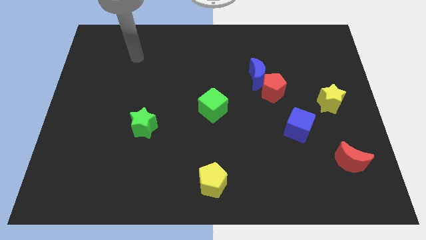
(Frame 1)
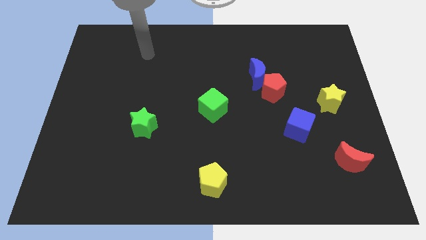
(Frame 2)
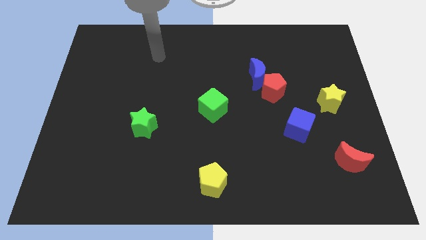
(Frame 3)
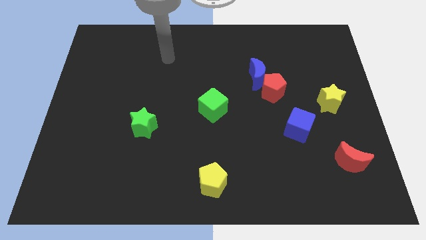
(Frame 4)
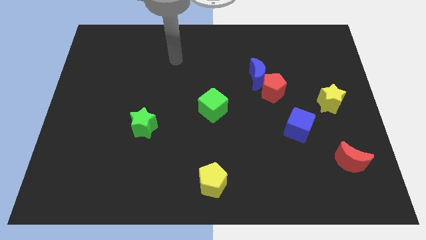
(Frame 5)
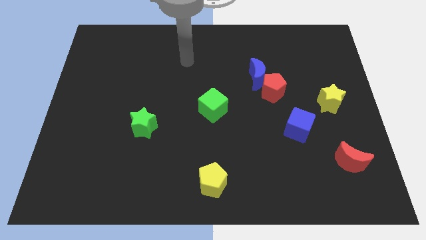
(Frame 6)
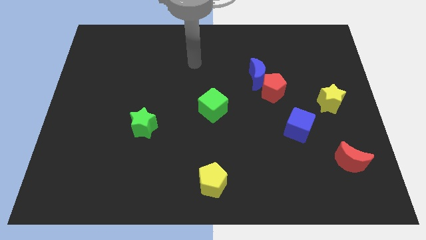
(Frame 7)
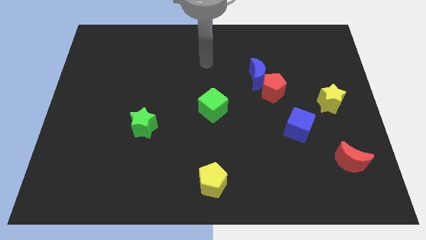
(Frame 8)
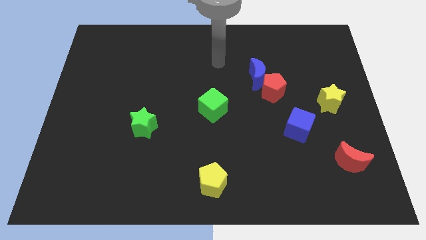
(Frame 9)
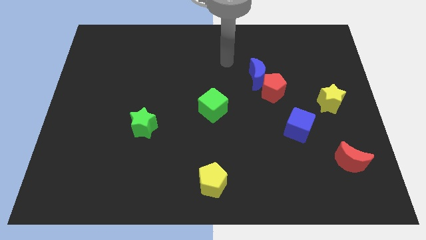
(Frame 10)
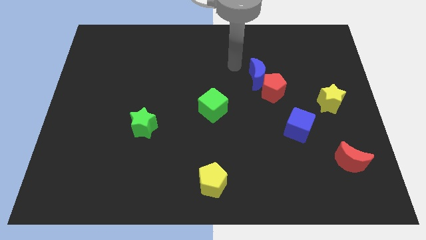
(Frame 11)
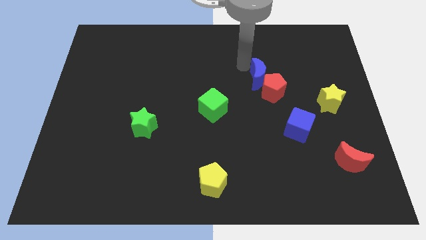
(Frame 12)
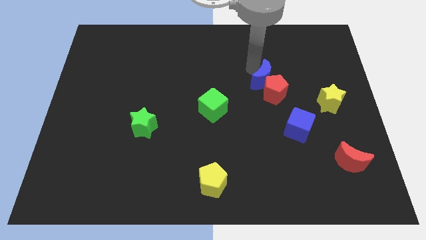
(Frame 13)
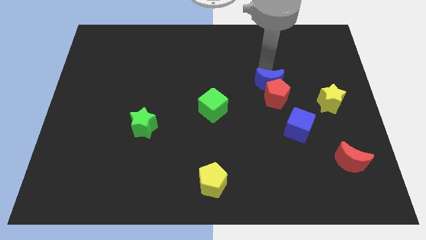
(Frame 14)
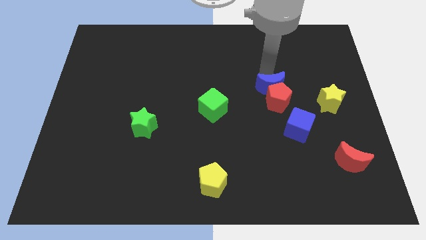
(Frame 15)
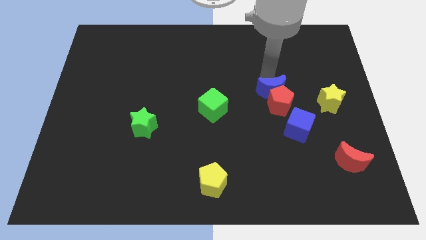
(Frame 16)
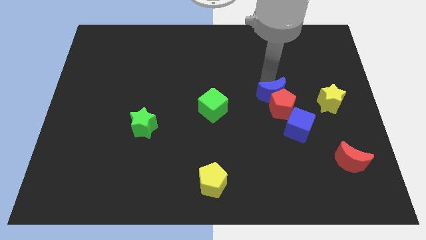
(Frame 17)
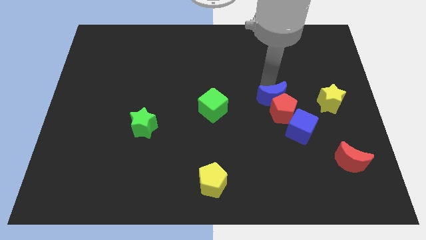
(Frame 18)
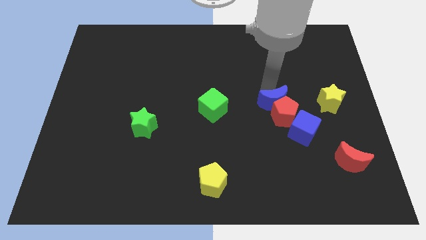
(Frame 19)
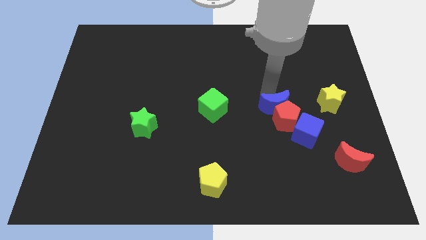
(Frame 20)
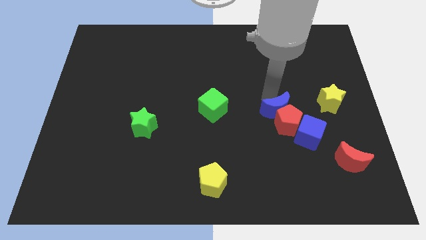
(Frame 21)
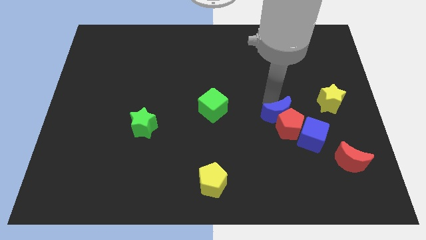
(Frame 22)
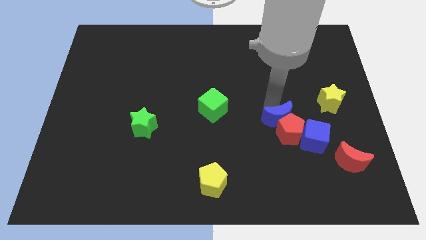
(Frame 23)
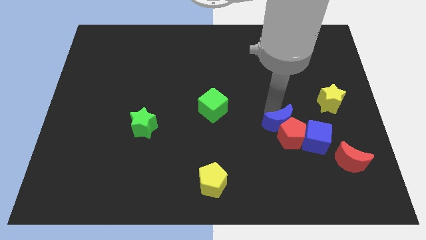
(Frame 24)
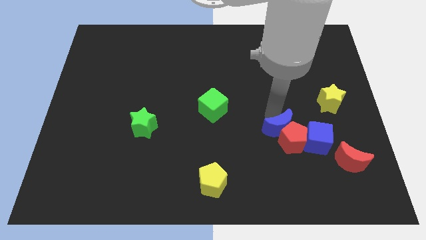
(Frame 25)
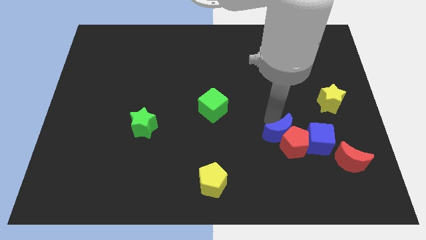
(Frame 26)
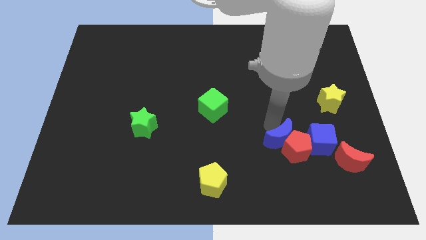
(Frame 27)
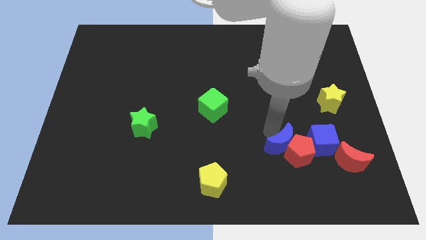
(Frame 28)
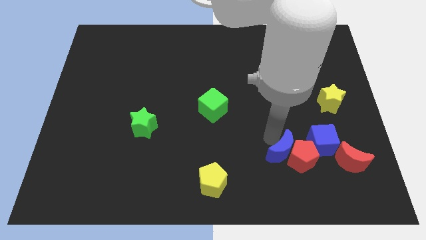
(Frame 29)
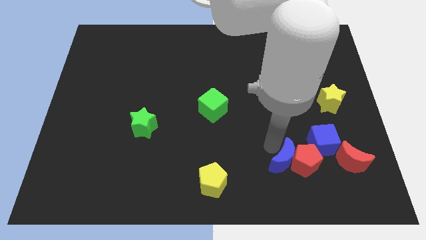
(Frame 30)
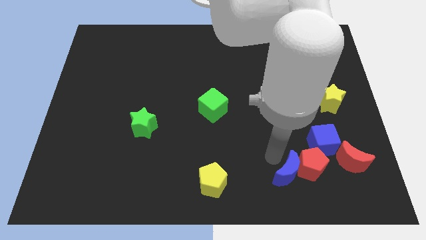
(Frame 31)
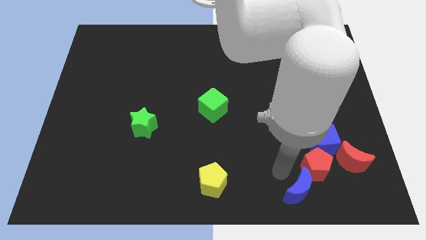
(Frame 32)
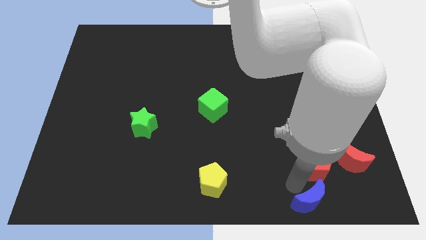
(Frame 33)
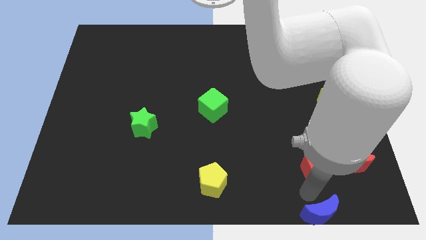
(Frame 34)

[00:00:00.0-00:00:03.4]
pull the red pentagon apart from the blue moon

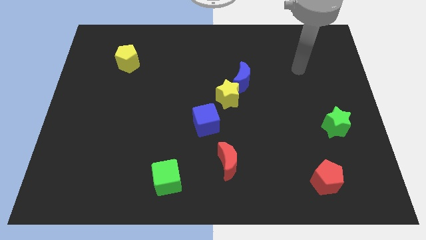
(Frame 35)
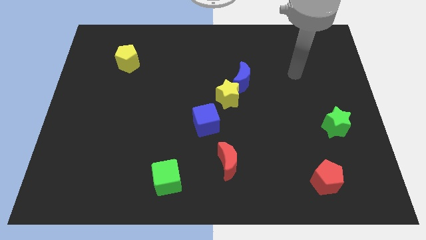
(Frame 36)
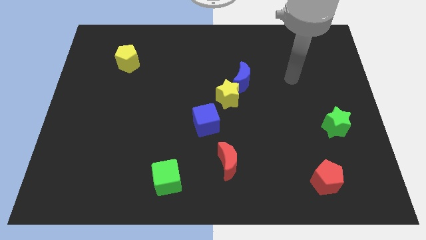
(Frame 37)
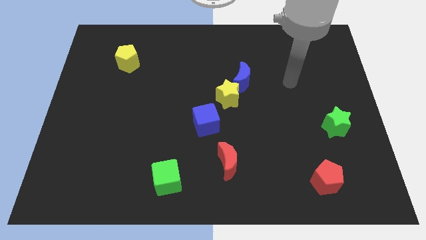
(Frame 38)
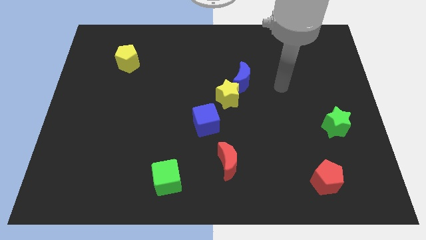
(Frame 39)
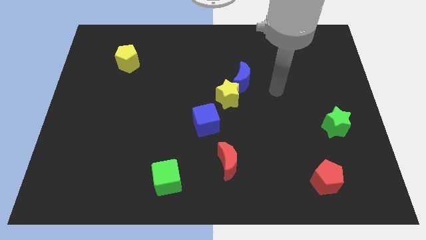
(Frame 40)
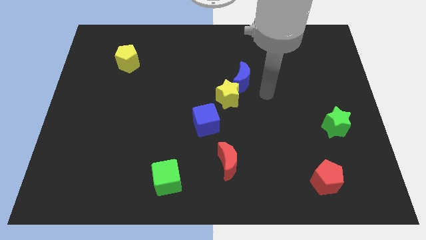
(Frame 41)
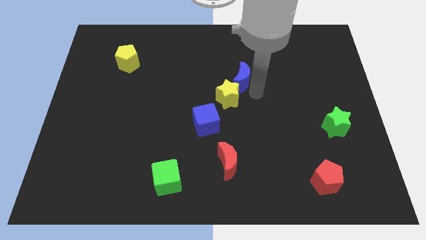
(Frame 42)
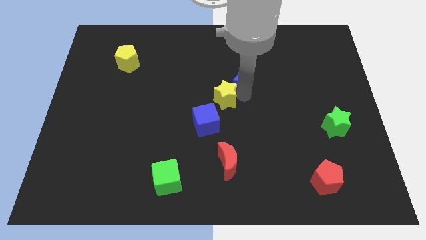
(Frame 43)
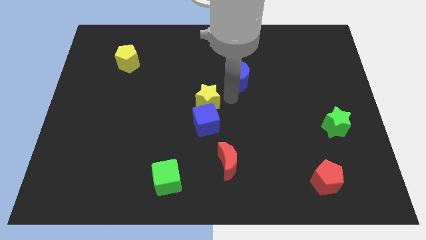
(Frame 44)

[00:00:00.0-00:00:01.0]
pull the blue moon apart from the yellow star

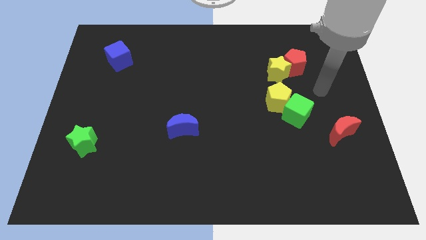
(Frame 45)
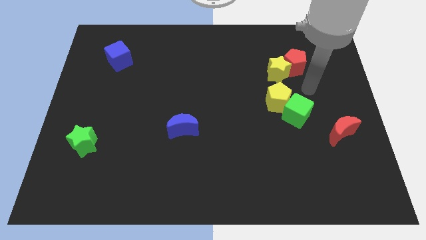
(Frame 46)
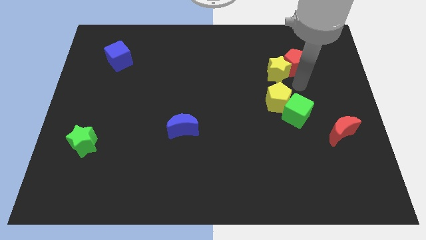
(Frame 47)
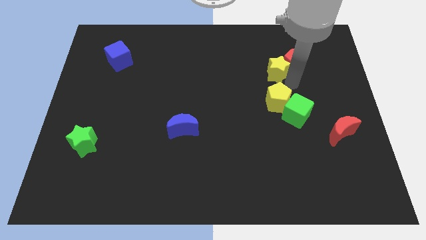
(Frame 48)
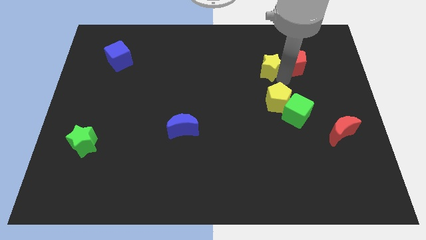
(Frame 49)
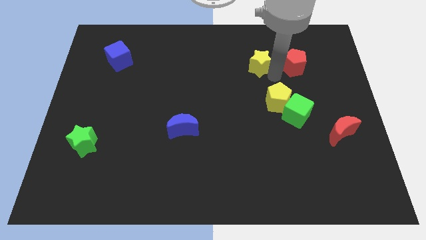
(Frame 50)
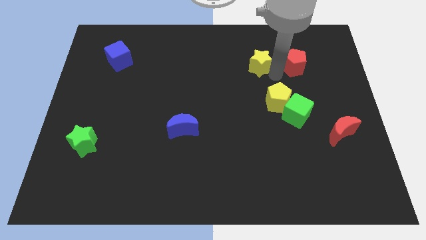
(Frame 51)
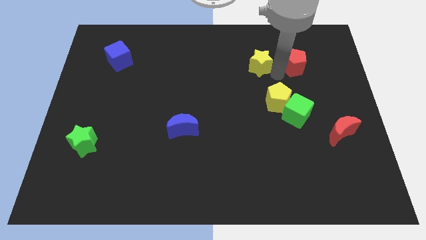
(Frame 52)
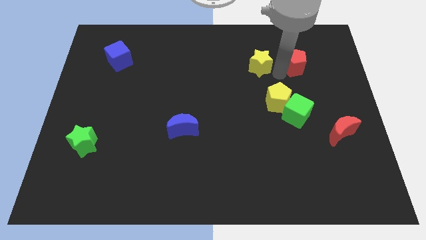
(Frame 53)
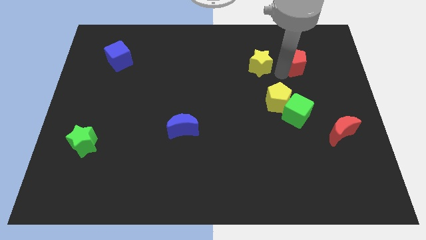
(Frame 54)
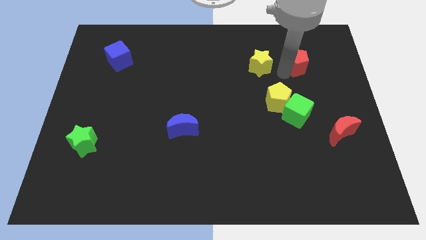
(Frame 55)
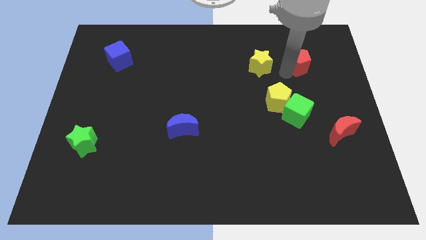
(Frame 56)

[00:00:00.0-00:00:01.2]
pull the red pentagon apart from the yellow star

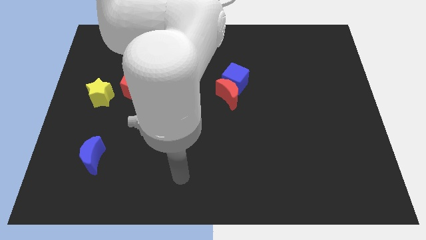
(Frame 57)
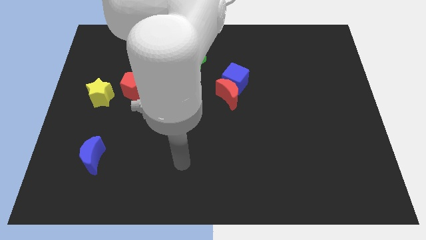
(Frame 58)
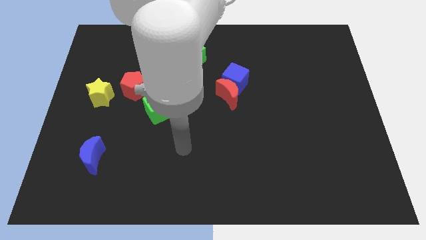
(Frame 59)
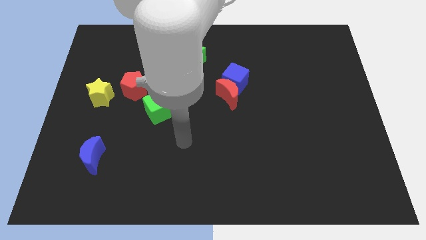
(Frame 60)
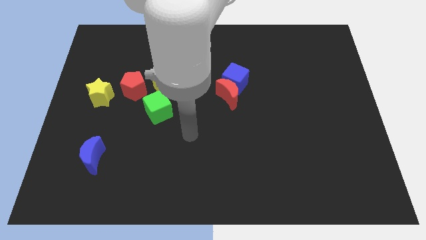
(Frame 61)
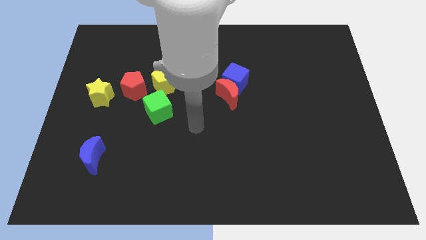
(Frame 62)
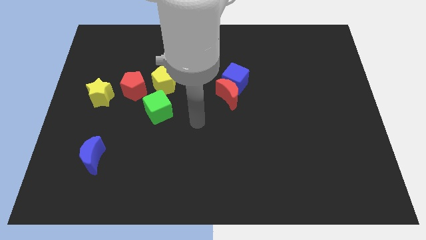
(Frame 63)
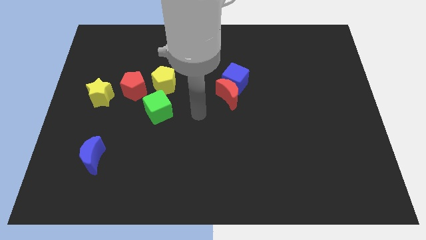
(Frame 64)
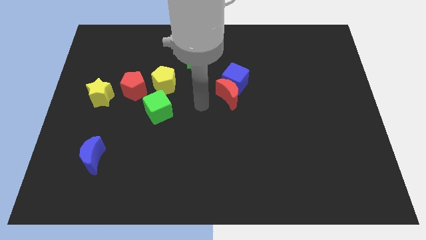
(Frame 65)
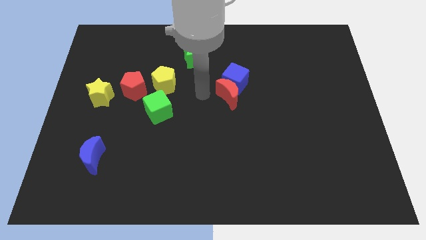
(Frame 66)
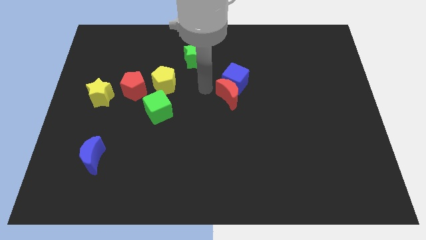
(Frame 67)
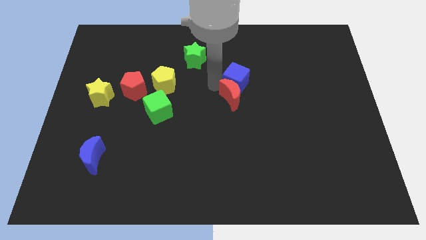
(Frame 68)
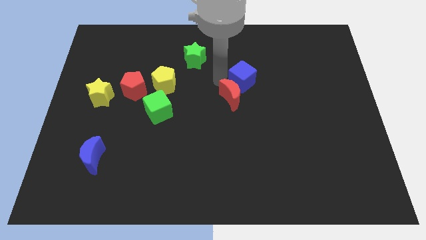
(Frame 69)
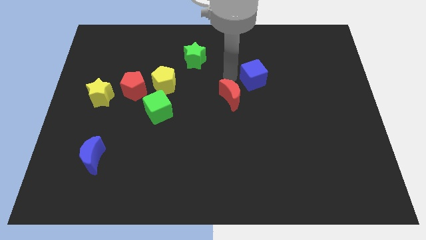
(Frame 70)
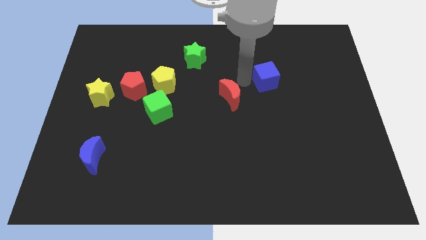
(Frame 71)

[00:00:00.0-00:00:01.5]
pull the red moon apart from the blue cube

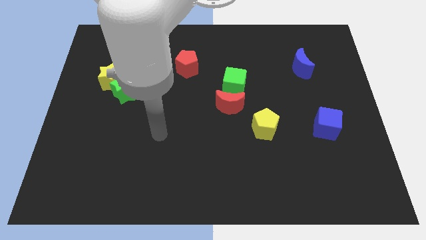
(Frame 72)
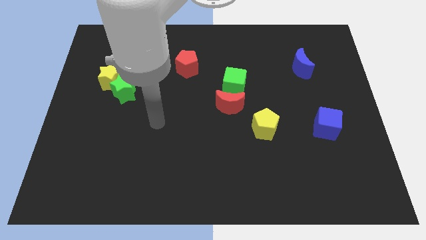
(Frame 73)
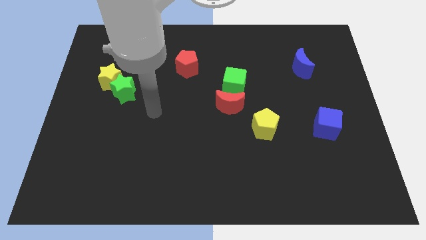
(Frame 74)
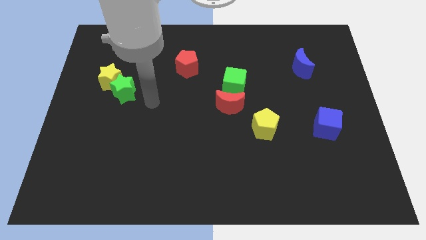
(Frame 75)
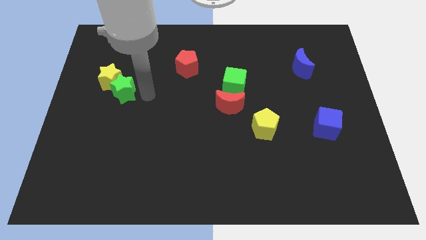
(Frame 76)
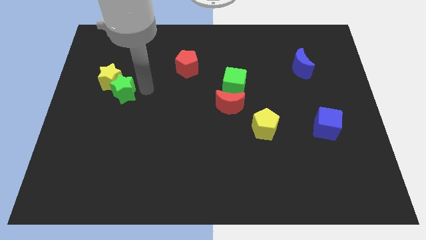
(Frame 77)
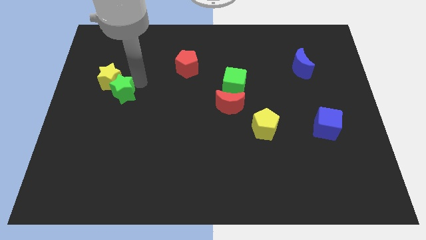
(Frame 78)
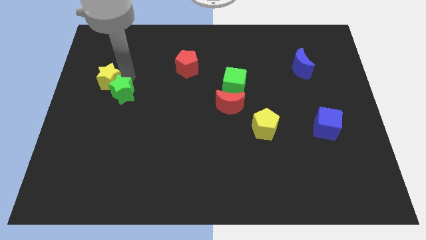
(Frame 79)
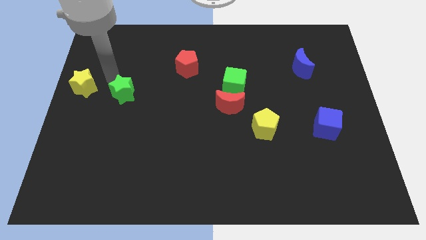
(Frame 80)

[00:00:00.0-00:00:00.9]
move the green star away from the yellow star

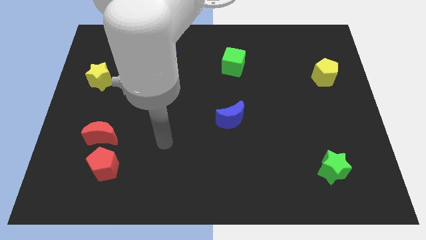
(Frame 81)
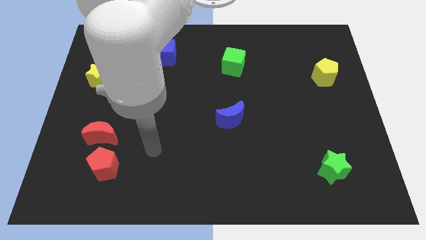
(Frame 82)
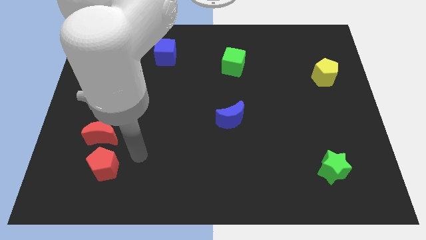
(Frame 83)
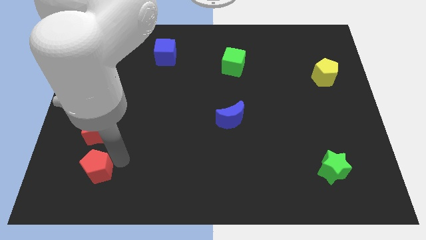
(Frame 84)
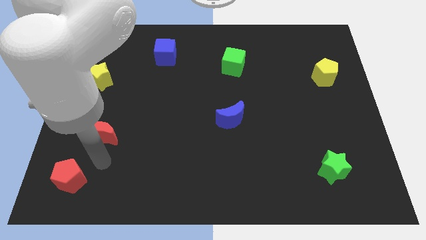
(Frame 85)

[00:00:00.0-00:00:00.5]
pull the red moon apart from the red pentagon

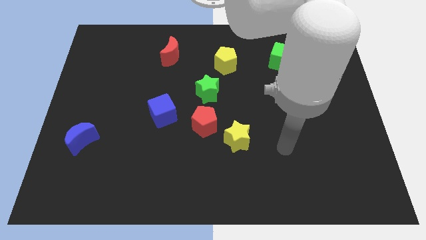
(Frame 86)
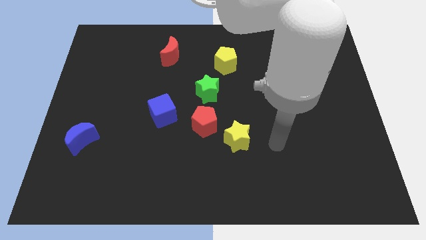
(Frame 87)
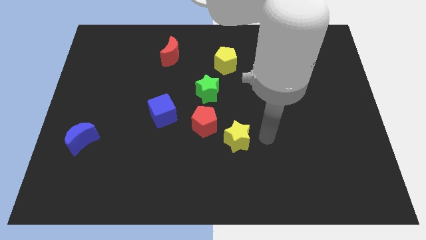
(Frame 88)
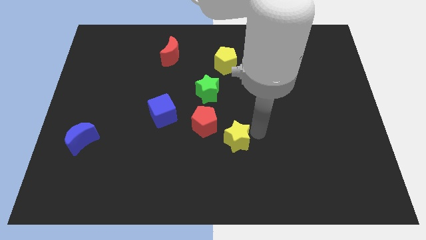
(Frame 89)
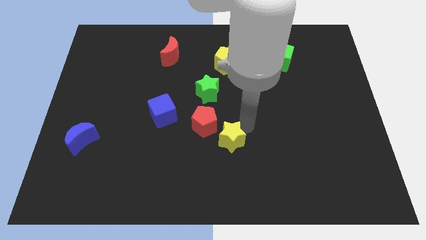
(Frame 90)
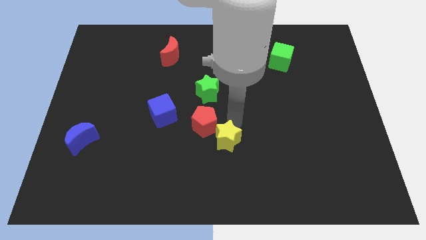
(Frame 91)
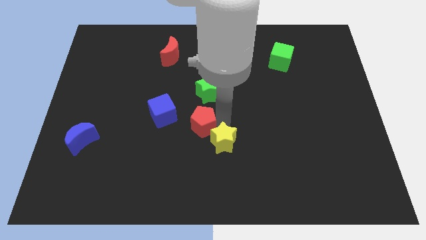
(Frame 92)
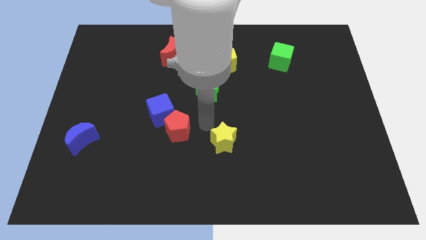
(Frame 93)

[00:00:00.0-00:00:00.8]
separate the yellow star from the red pentagon
